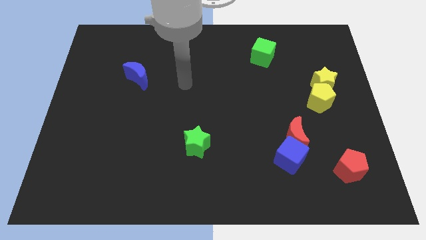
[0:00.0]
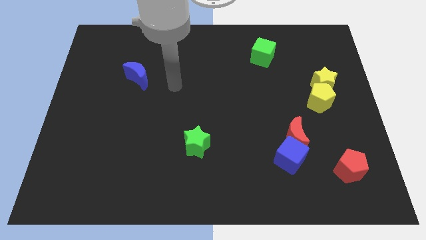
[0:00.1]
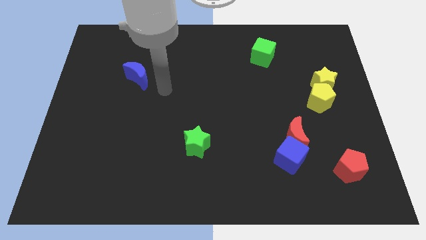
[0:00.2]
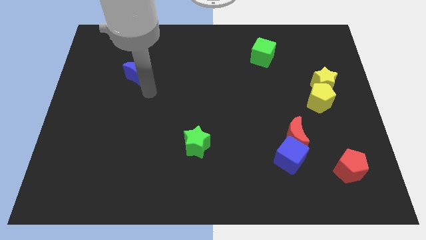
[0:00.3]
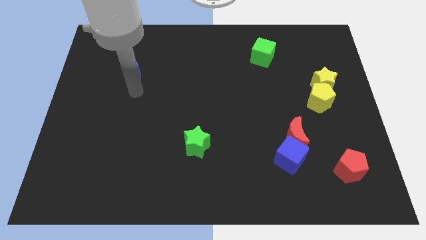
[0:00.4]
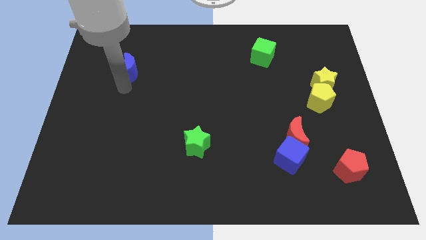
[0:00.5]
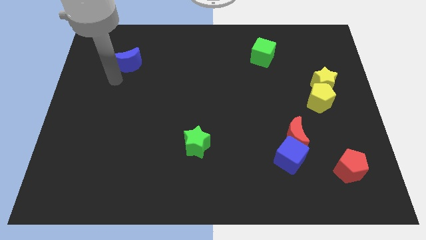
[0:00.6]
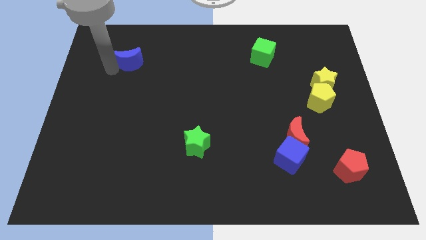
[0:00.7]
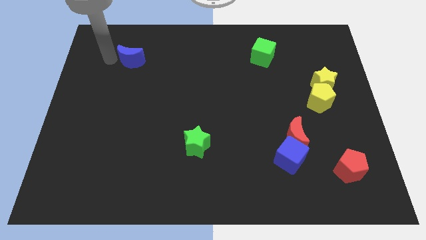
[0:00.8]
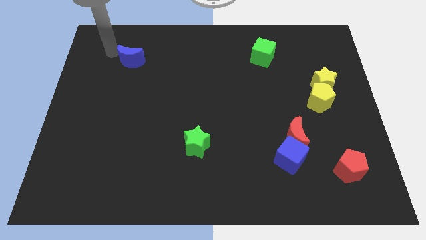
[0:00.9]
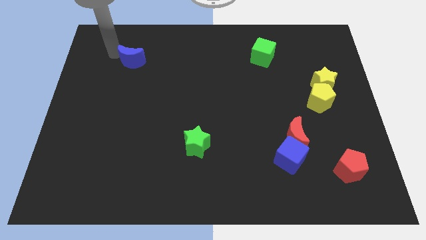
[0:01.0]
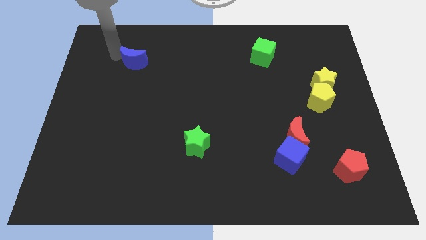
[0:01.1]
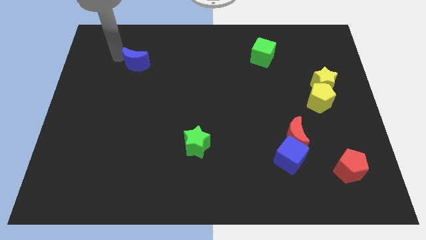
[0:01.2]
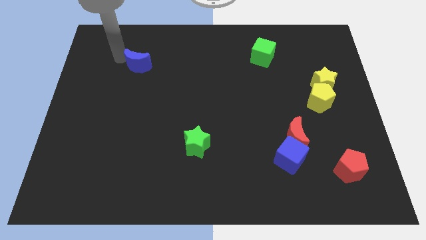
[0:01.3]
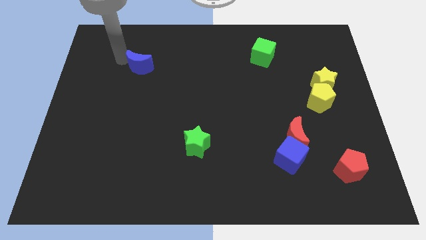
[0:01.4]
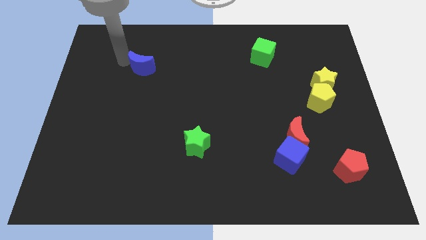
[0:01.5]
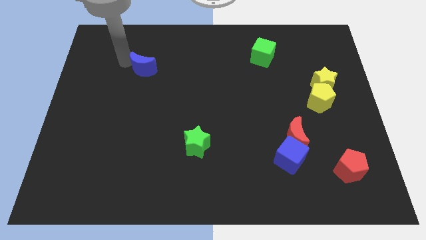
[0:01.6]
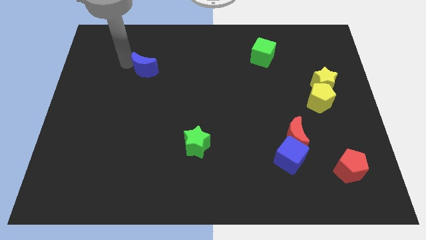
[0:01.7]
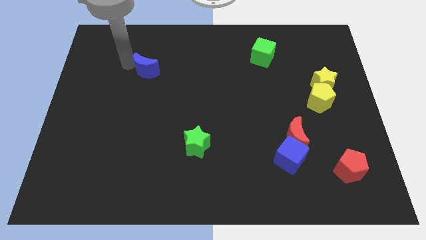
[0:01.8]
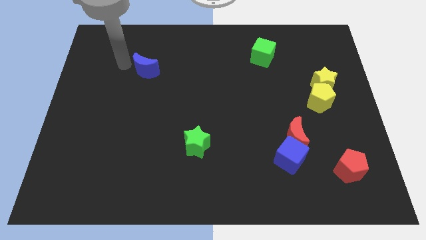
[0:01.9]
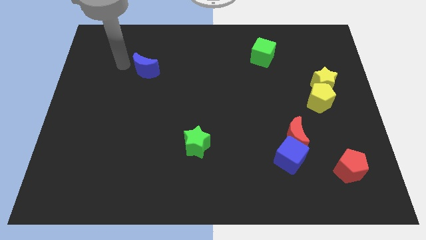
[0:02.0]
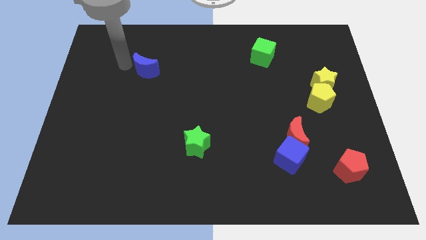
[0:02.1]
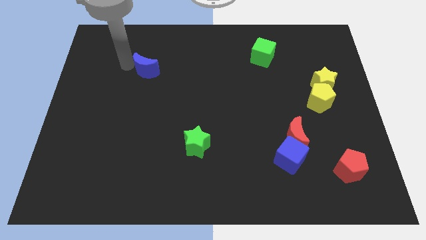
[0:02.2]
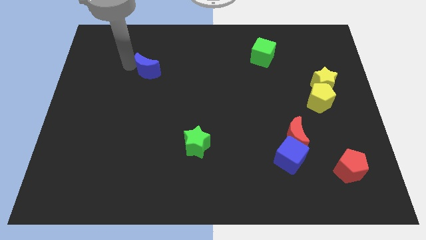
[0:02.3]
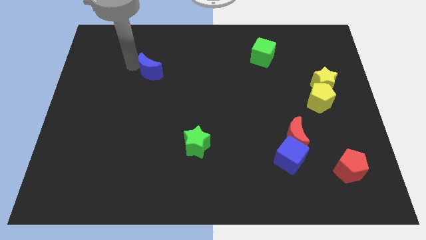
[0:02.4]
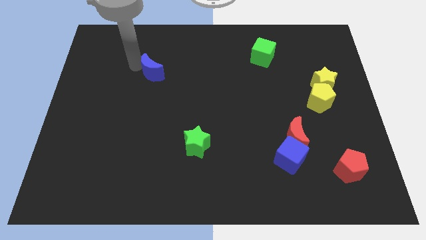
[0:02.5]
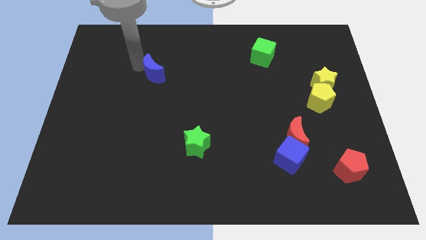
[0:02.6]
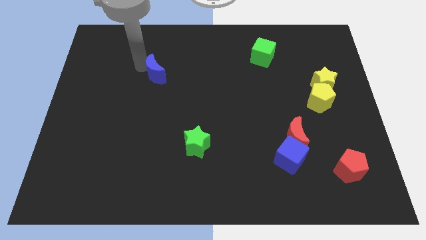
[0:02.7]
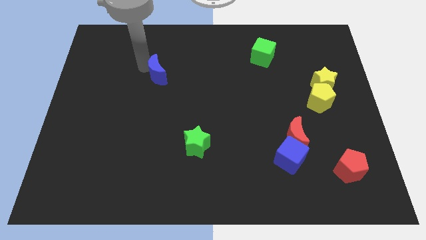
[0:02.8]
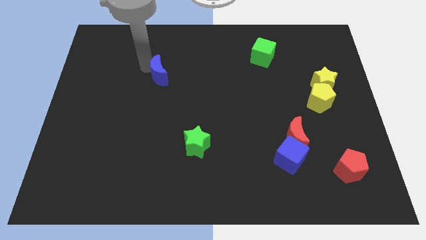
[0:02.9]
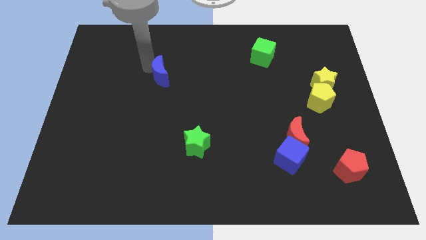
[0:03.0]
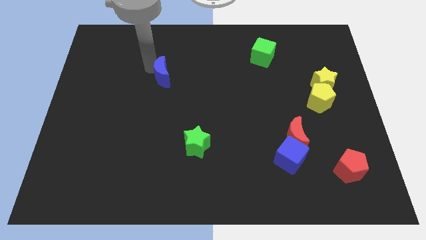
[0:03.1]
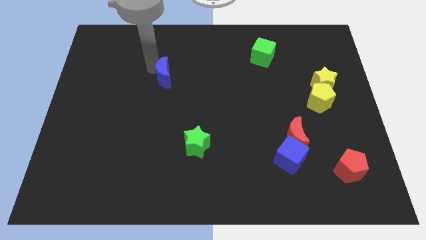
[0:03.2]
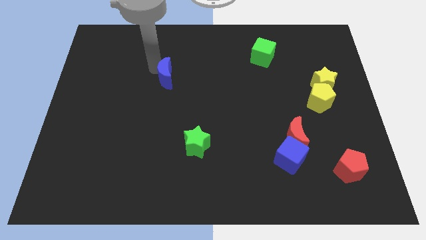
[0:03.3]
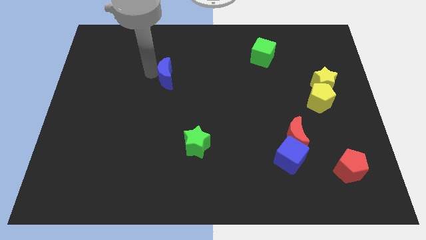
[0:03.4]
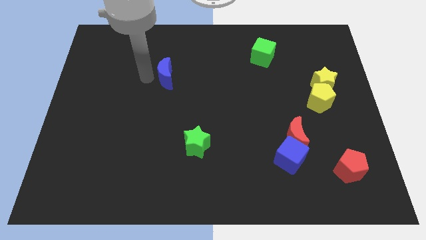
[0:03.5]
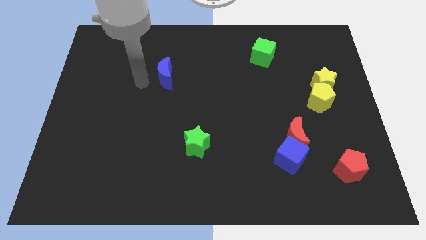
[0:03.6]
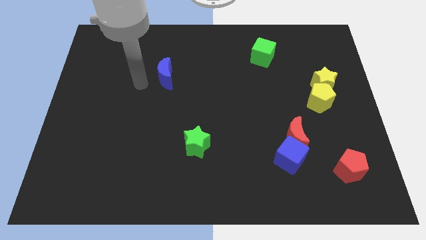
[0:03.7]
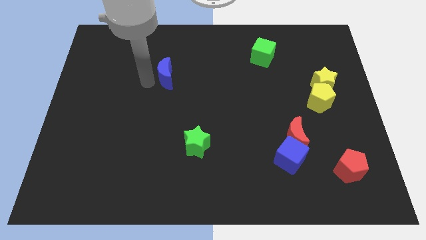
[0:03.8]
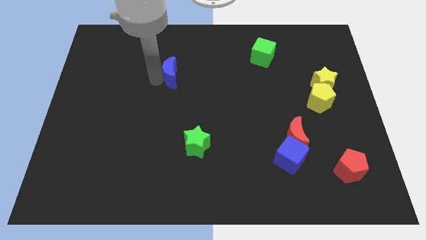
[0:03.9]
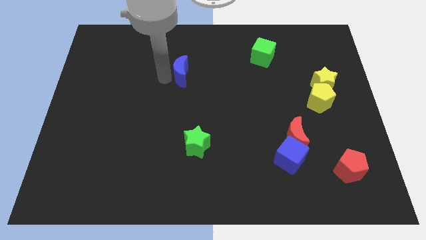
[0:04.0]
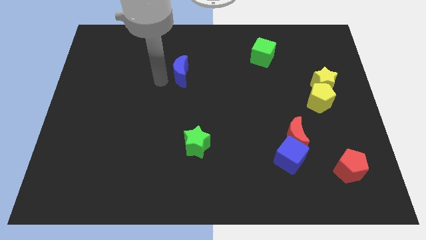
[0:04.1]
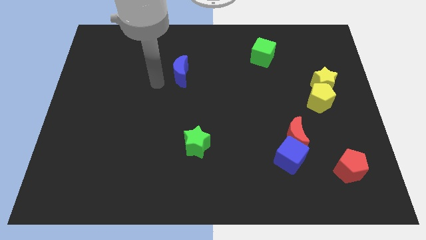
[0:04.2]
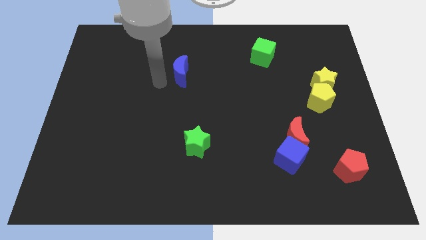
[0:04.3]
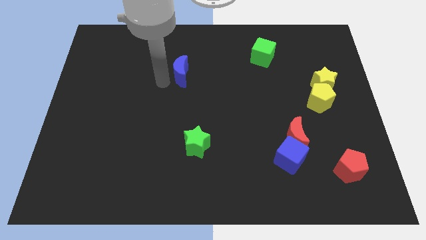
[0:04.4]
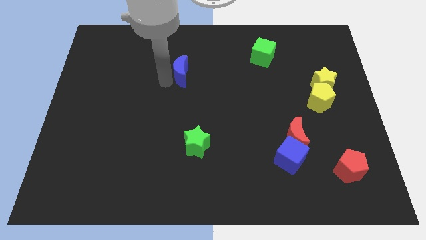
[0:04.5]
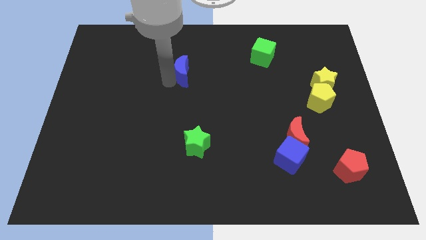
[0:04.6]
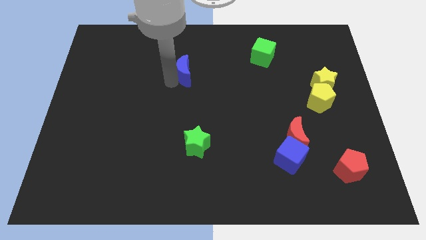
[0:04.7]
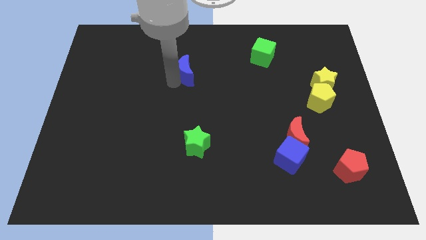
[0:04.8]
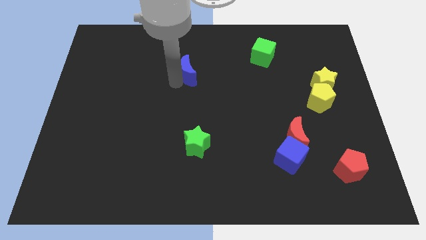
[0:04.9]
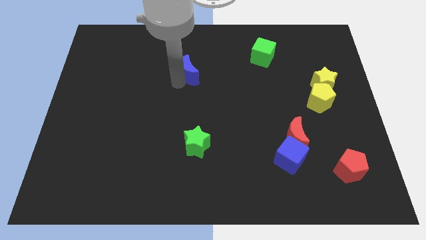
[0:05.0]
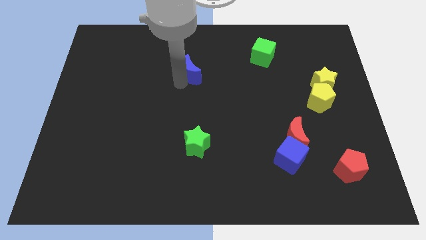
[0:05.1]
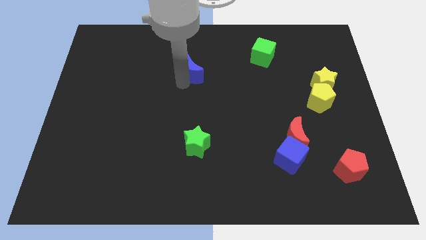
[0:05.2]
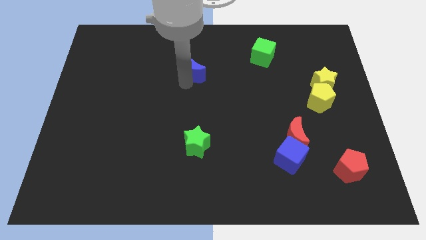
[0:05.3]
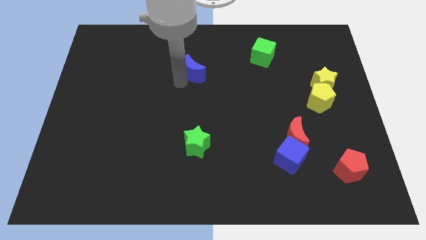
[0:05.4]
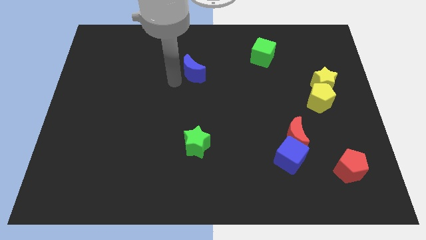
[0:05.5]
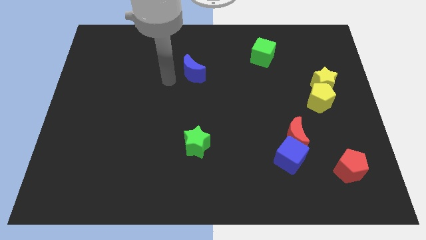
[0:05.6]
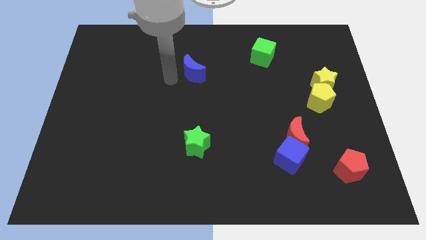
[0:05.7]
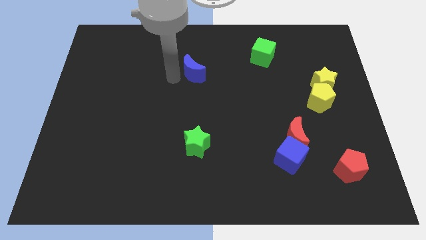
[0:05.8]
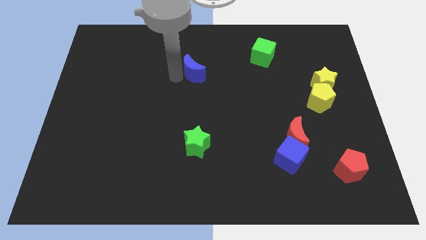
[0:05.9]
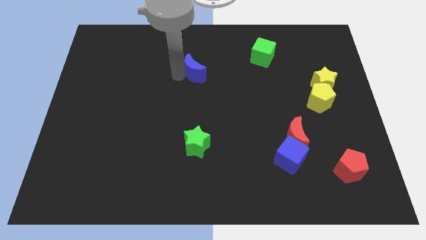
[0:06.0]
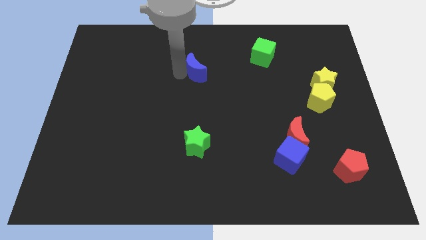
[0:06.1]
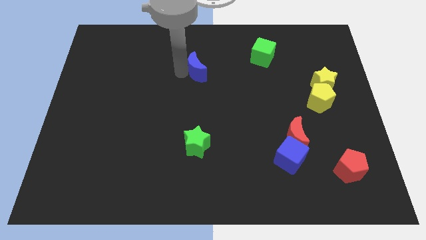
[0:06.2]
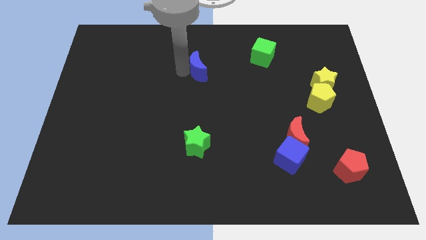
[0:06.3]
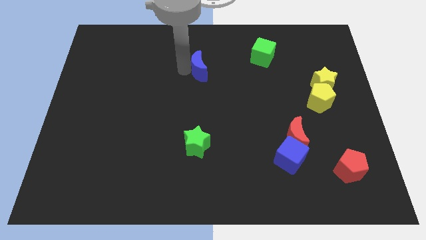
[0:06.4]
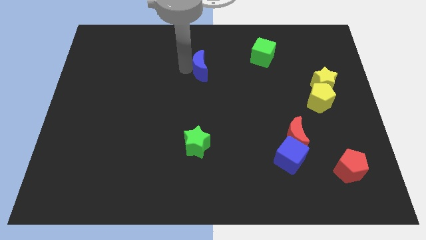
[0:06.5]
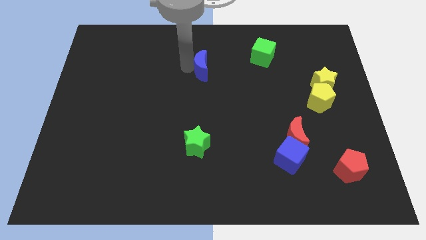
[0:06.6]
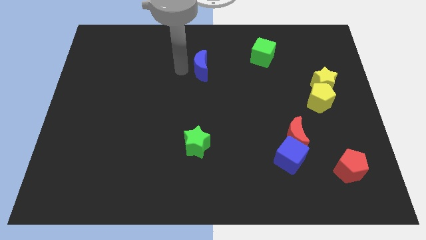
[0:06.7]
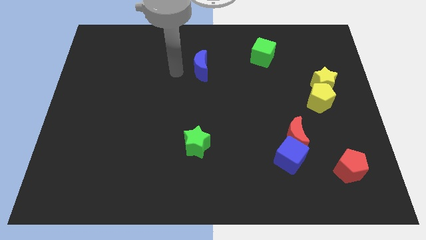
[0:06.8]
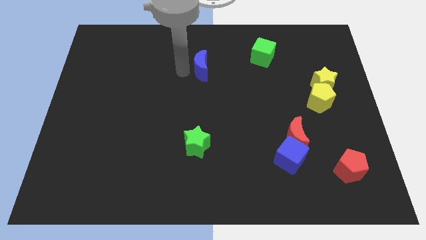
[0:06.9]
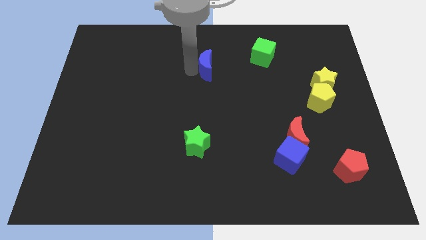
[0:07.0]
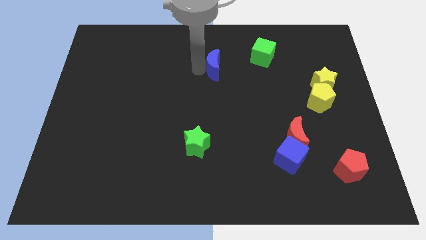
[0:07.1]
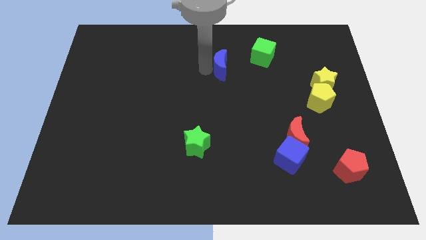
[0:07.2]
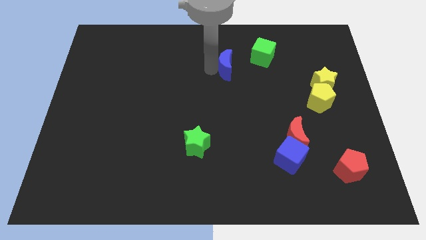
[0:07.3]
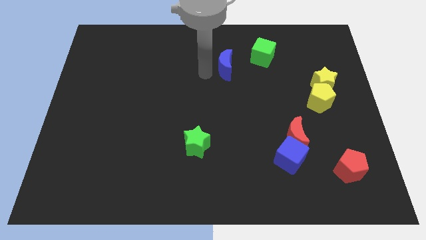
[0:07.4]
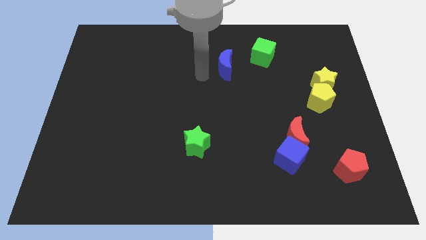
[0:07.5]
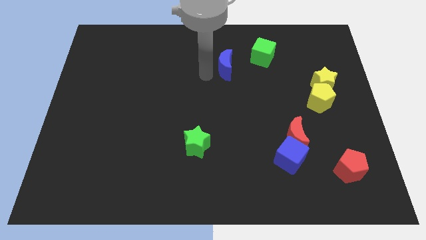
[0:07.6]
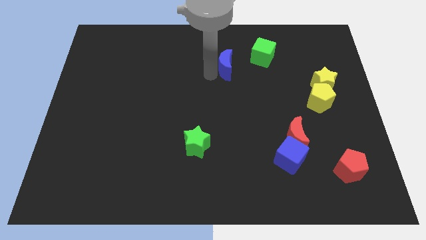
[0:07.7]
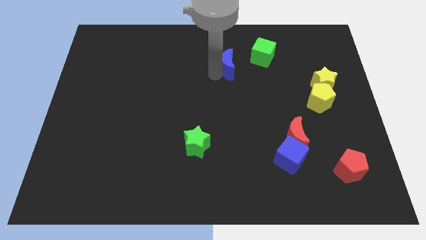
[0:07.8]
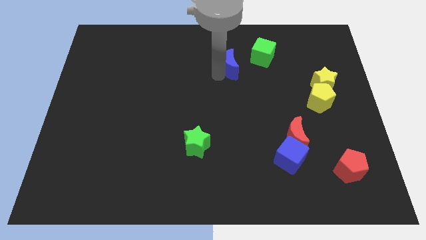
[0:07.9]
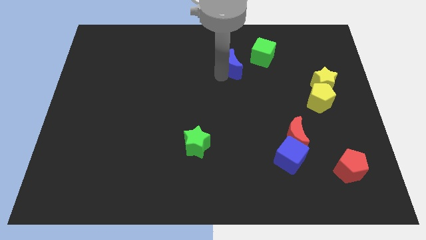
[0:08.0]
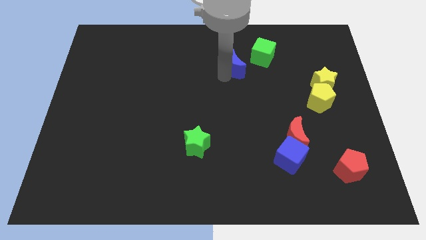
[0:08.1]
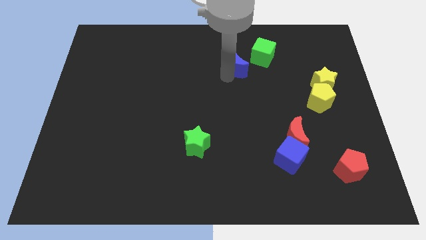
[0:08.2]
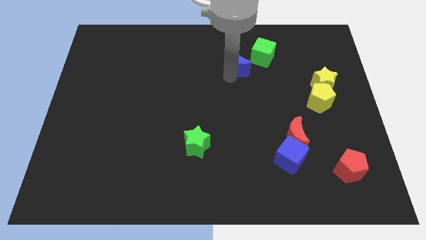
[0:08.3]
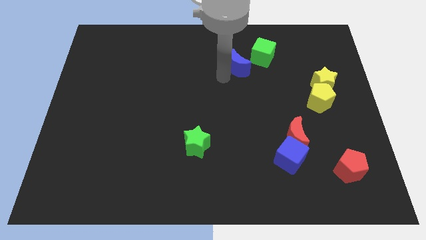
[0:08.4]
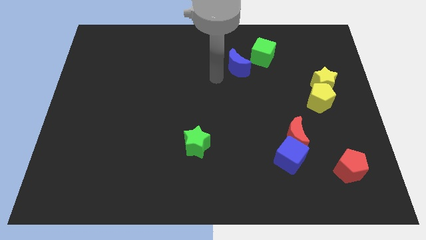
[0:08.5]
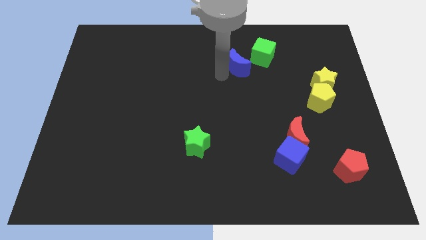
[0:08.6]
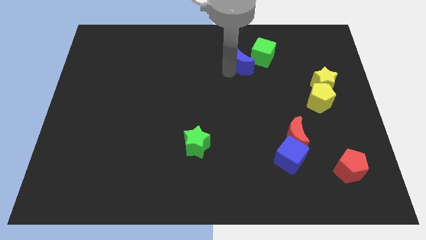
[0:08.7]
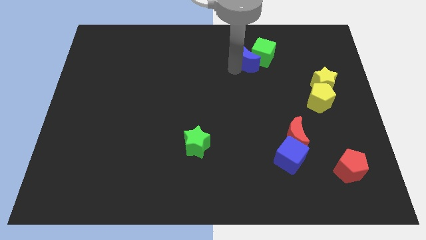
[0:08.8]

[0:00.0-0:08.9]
slide the blue moon next to the green cube
